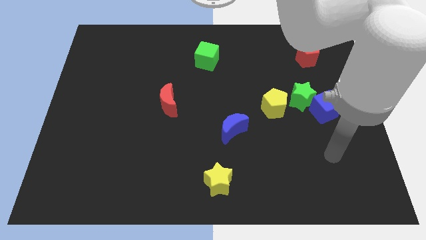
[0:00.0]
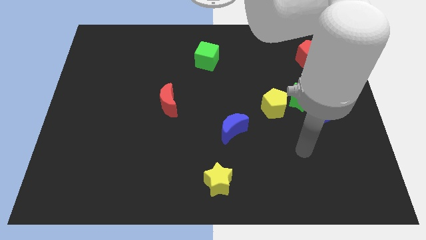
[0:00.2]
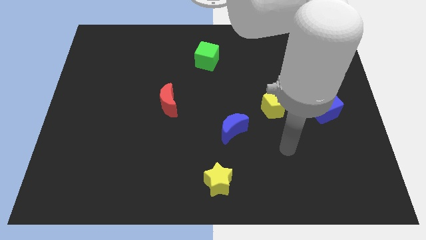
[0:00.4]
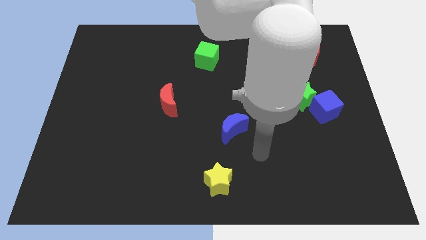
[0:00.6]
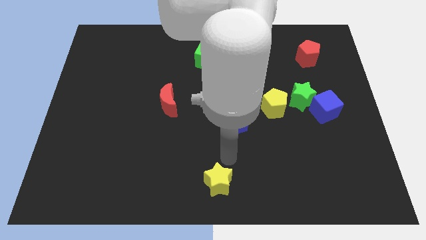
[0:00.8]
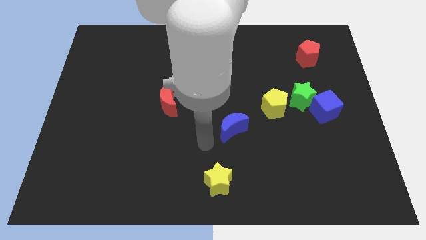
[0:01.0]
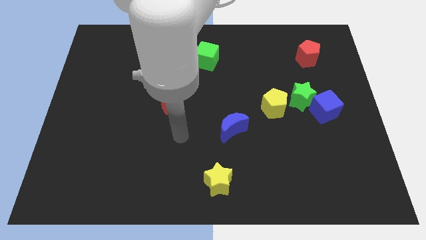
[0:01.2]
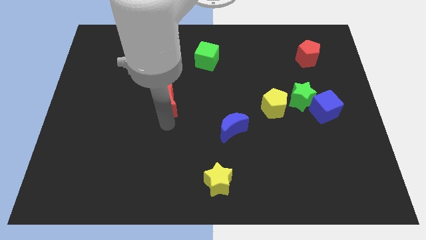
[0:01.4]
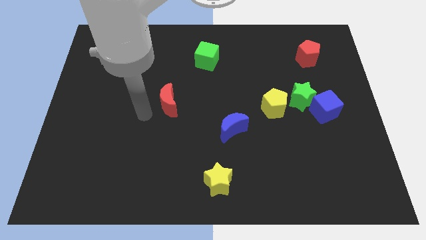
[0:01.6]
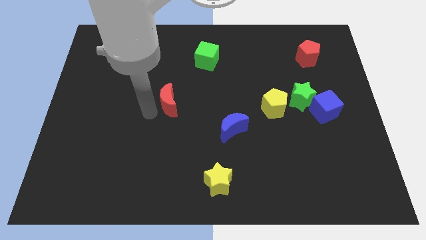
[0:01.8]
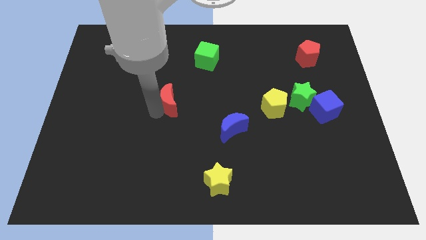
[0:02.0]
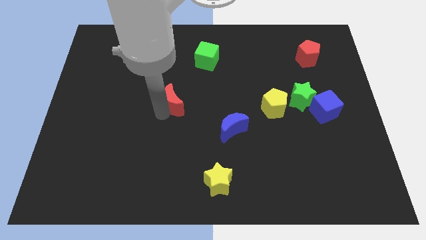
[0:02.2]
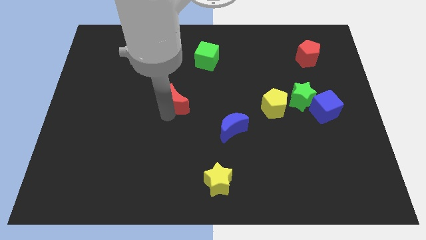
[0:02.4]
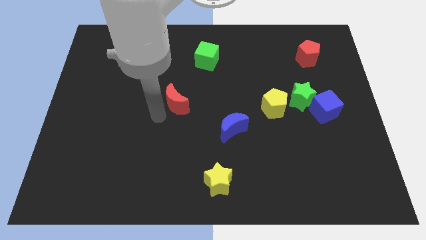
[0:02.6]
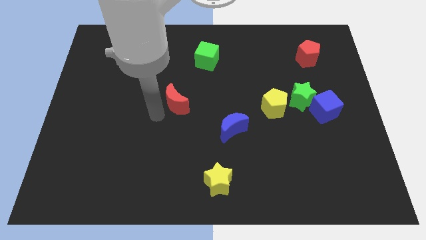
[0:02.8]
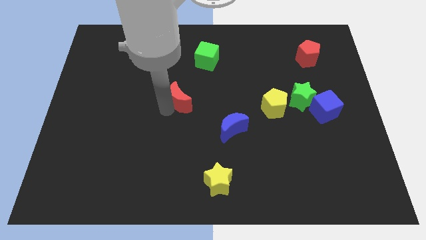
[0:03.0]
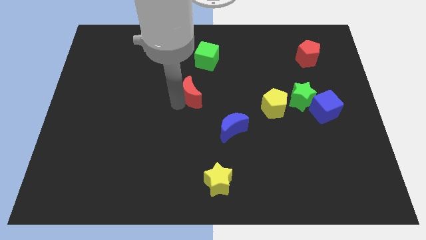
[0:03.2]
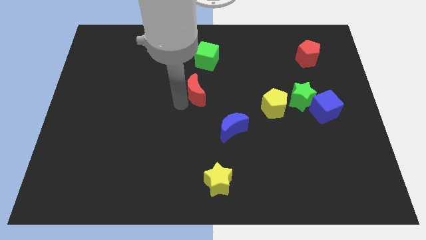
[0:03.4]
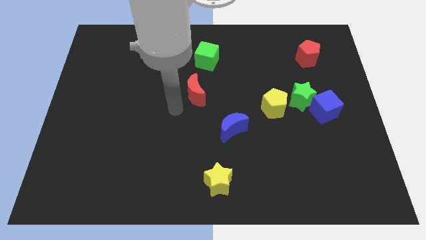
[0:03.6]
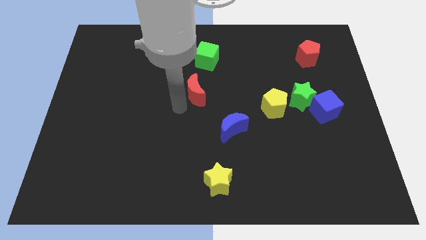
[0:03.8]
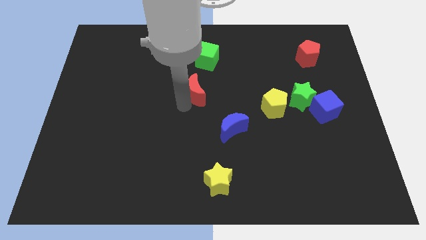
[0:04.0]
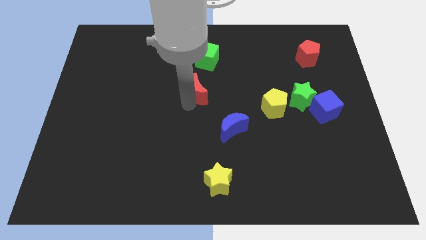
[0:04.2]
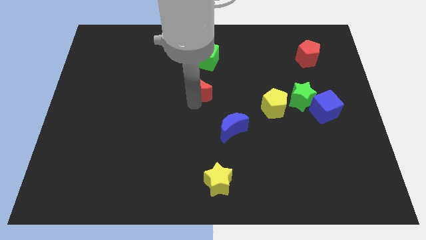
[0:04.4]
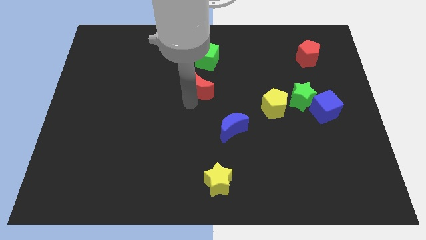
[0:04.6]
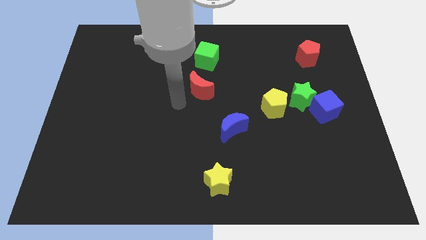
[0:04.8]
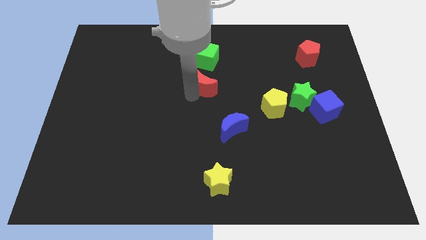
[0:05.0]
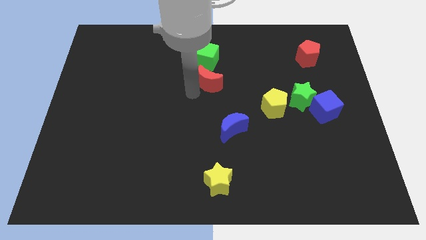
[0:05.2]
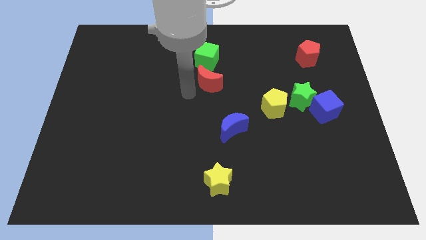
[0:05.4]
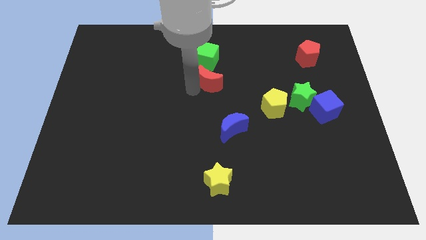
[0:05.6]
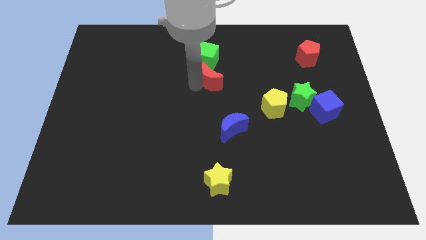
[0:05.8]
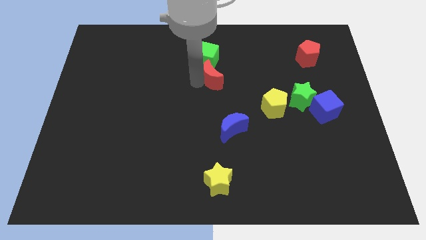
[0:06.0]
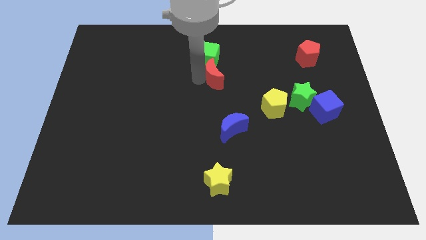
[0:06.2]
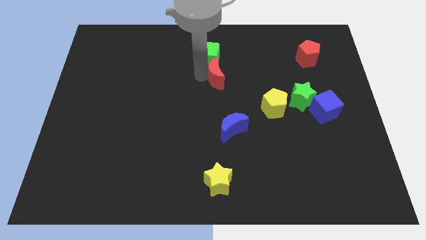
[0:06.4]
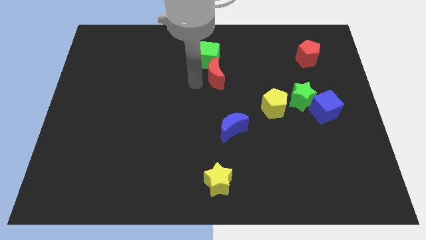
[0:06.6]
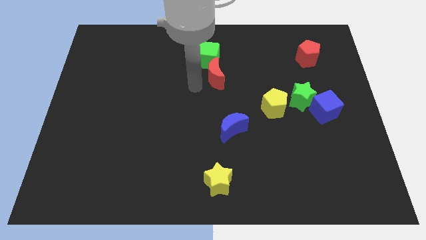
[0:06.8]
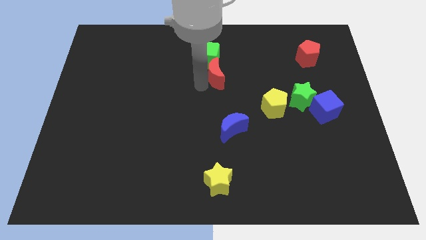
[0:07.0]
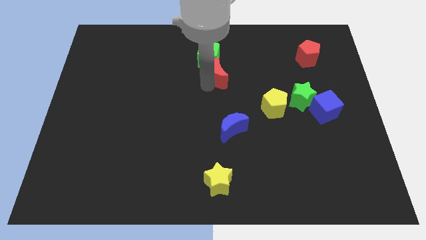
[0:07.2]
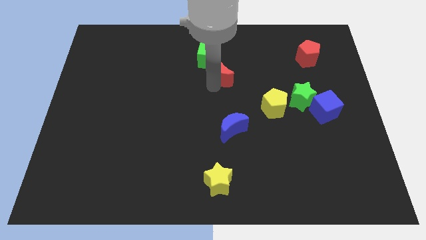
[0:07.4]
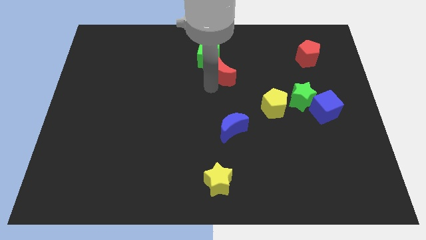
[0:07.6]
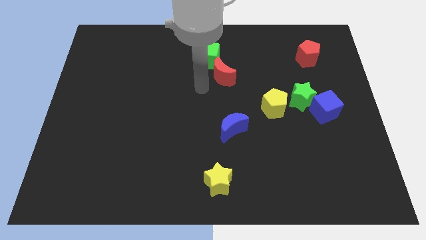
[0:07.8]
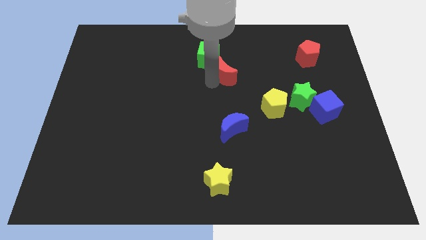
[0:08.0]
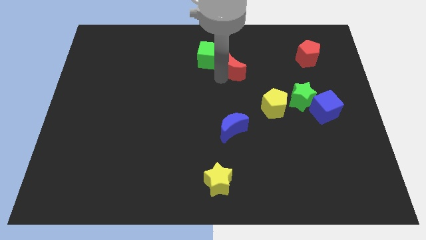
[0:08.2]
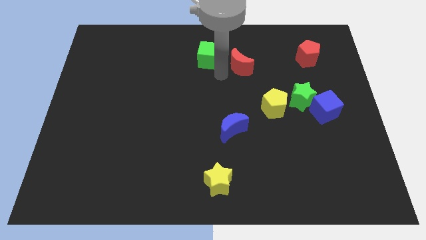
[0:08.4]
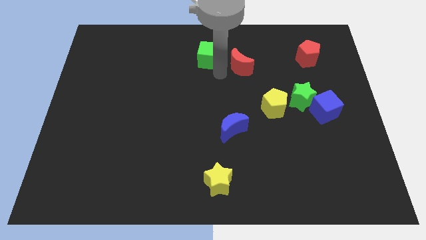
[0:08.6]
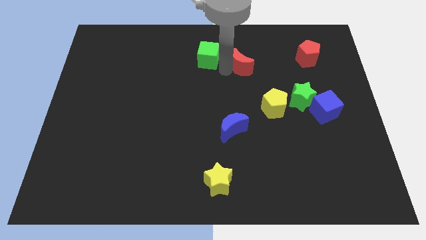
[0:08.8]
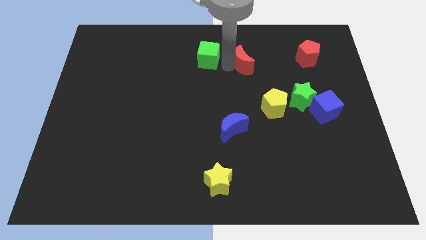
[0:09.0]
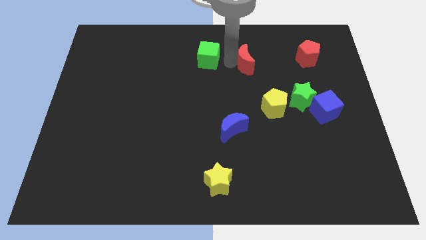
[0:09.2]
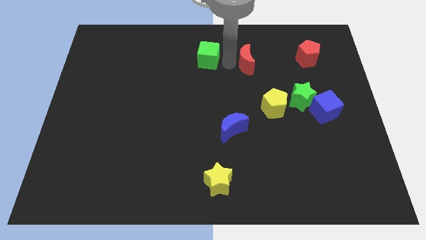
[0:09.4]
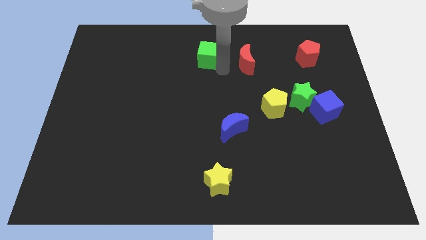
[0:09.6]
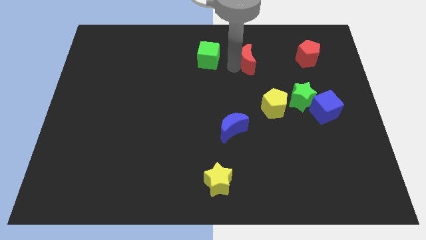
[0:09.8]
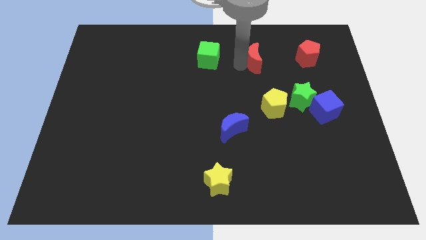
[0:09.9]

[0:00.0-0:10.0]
put the red moon just left of the red pentagon

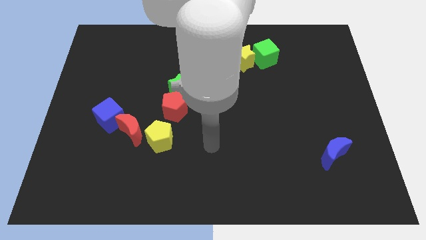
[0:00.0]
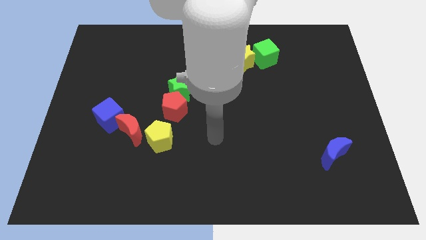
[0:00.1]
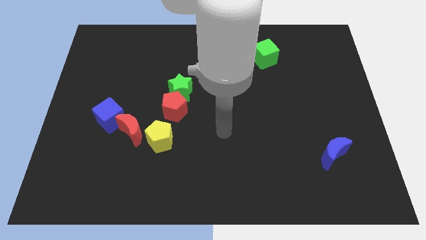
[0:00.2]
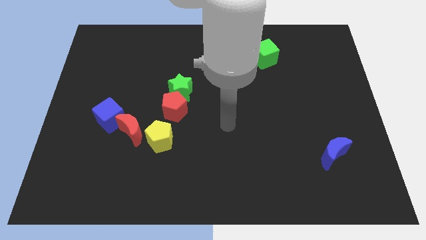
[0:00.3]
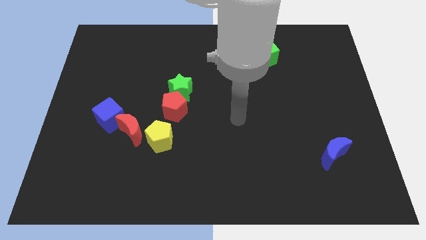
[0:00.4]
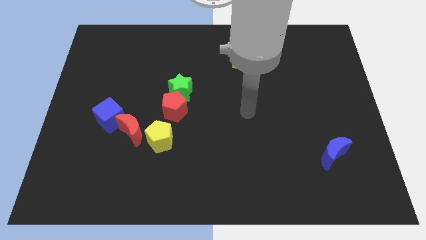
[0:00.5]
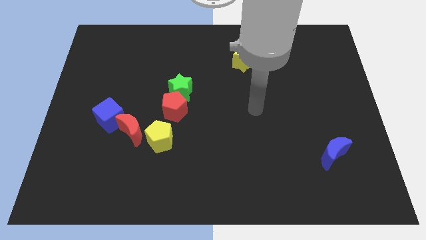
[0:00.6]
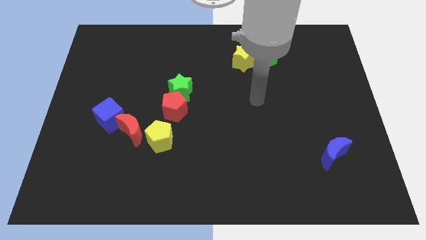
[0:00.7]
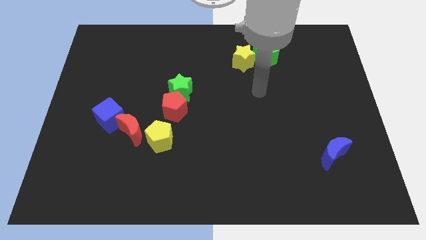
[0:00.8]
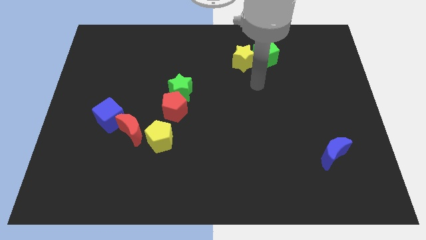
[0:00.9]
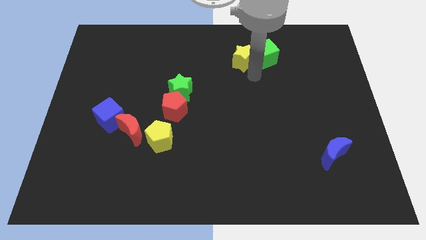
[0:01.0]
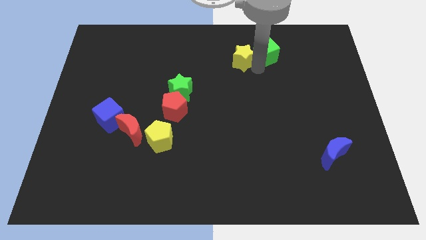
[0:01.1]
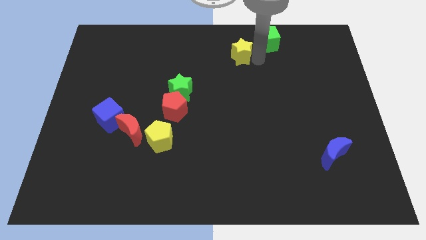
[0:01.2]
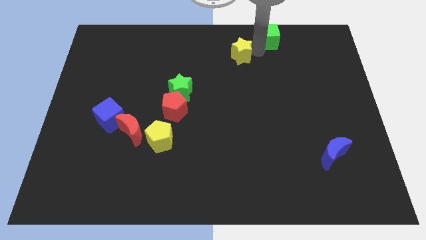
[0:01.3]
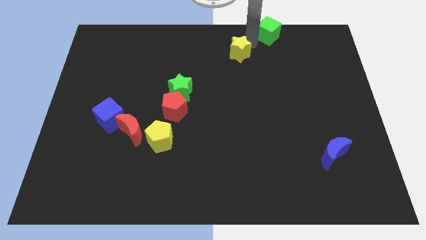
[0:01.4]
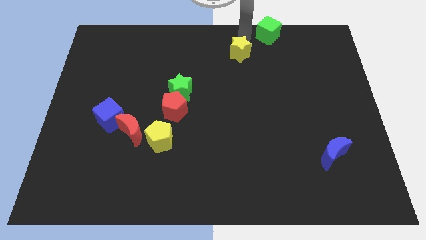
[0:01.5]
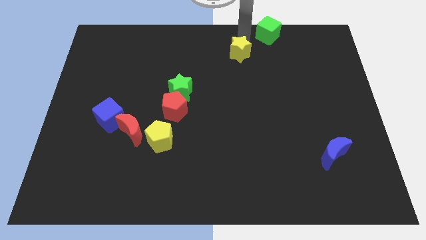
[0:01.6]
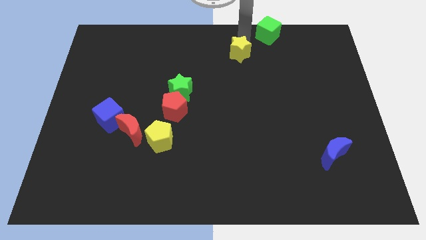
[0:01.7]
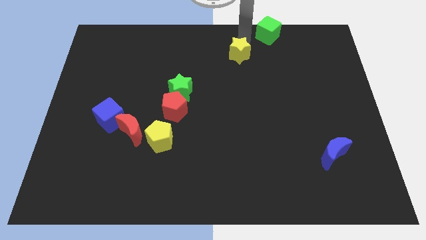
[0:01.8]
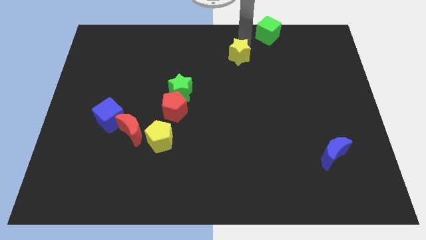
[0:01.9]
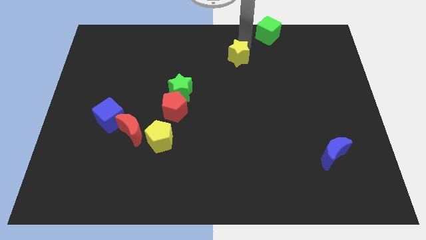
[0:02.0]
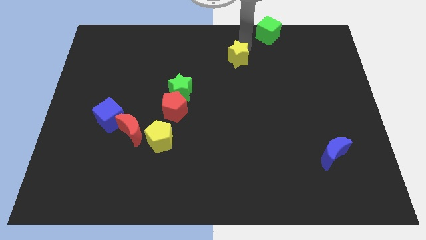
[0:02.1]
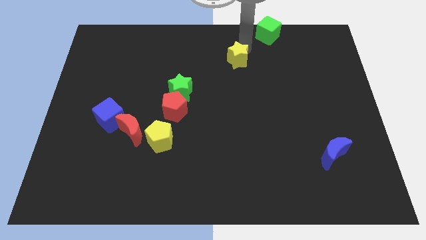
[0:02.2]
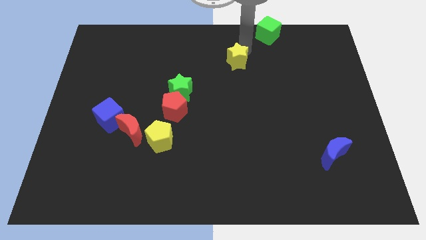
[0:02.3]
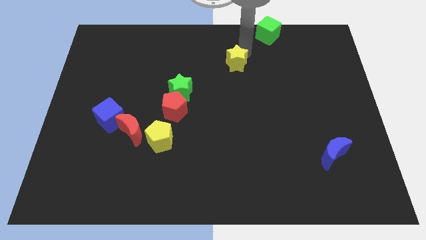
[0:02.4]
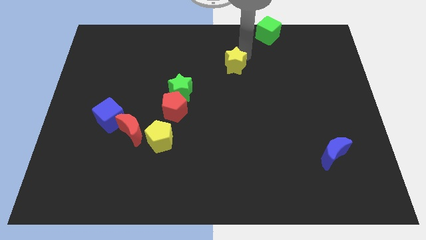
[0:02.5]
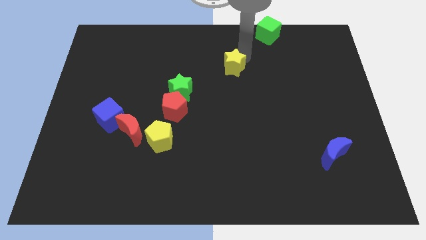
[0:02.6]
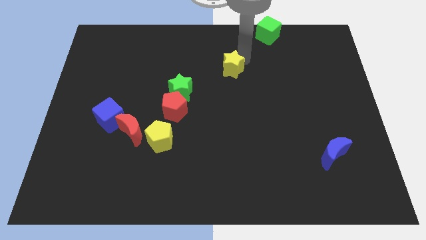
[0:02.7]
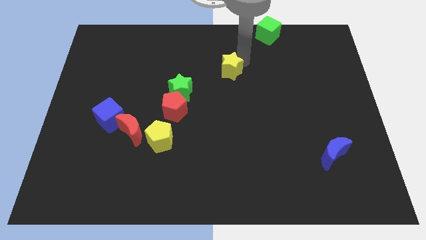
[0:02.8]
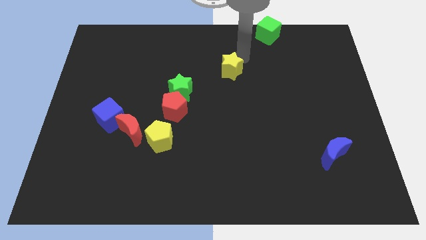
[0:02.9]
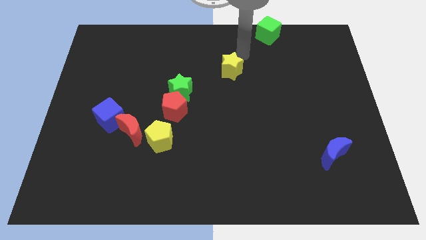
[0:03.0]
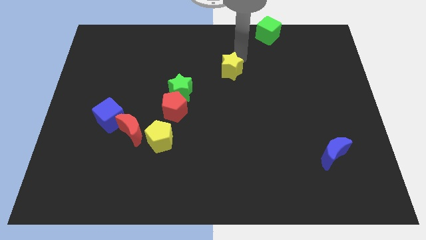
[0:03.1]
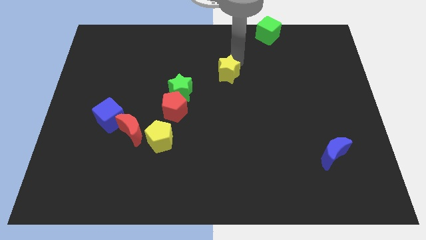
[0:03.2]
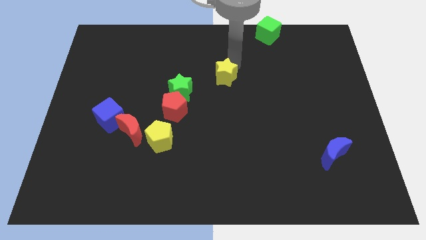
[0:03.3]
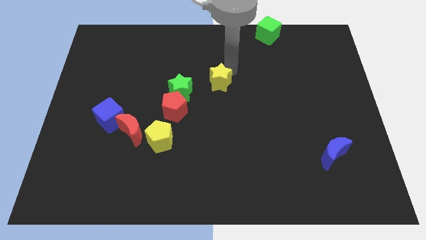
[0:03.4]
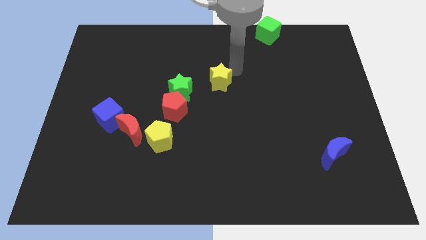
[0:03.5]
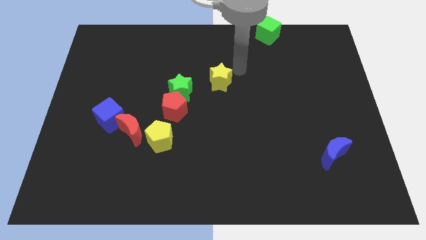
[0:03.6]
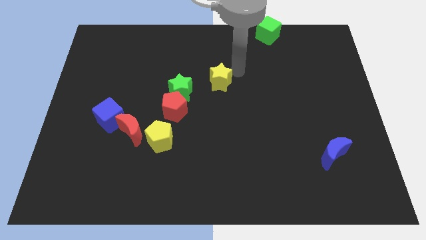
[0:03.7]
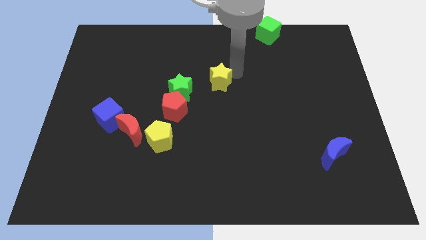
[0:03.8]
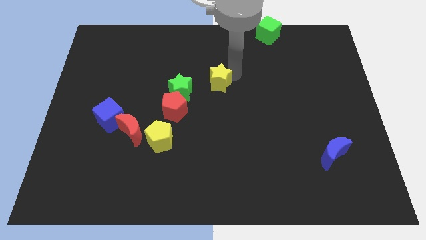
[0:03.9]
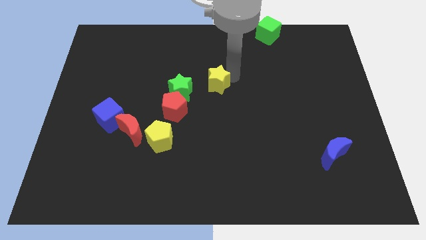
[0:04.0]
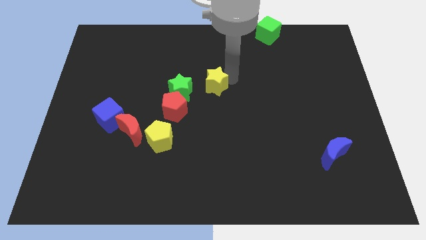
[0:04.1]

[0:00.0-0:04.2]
slide the yellow star diagonally up and to the right of the red pentagon
